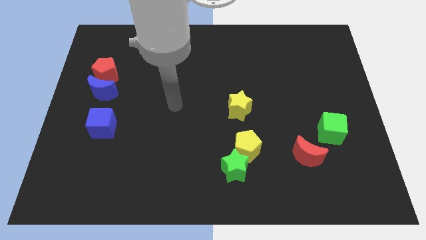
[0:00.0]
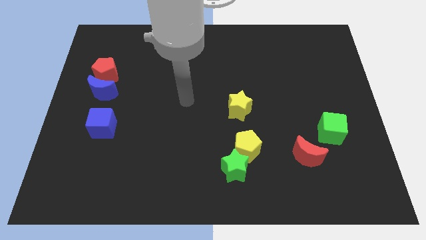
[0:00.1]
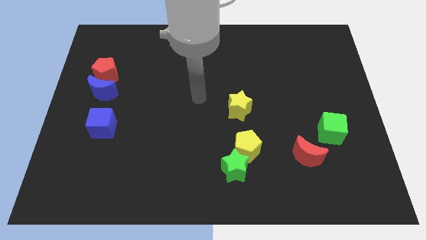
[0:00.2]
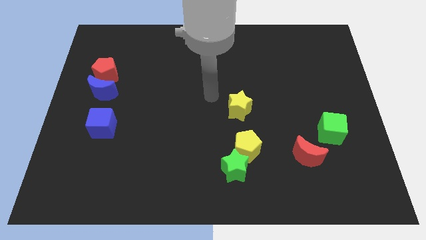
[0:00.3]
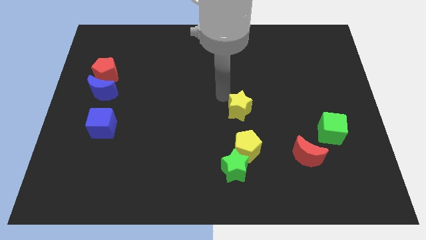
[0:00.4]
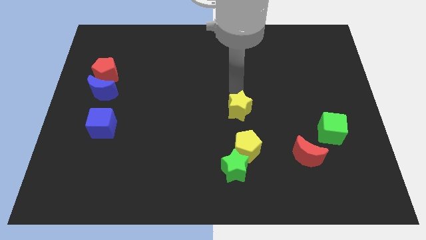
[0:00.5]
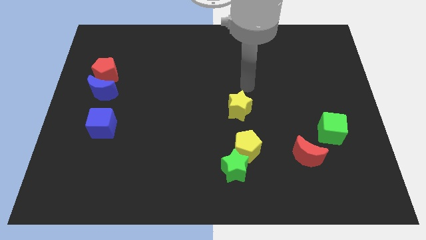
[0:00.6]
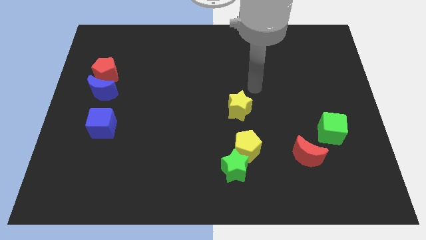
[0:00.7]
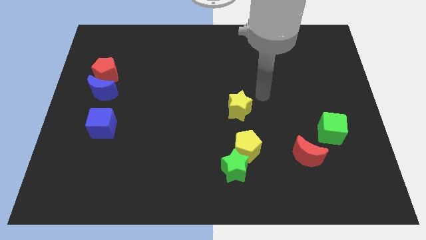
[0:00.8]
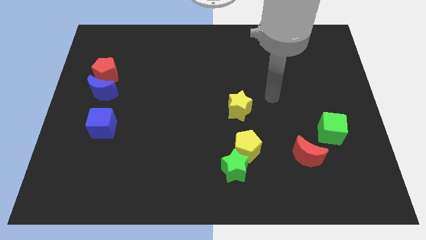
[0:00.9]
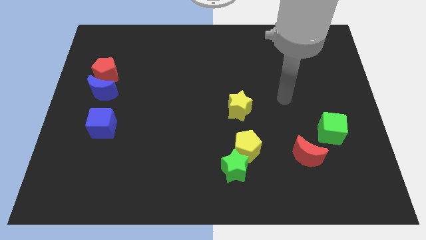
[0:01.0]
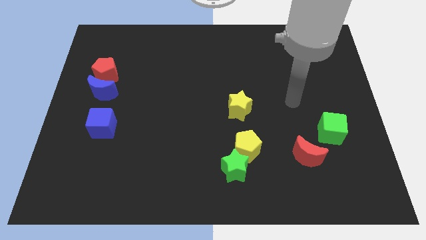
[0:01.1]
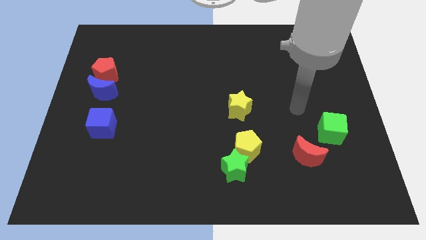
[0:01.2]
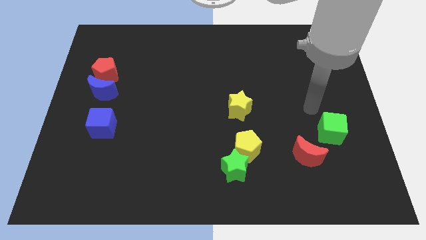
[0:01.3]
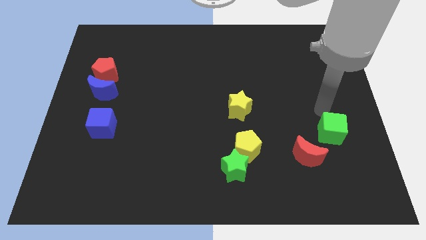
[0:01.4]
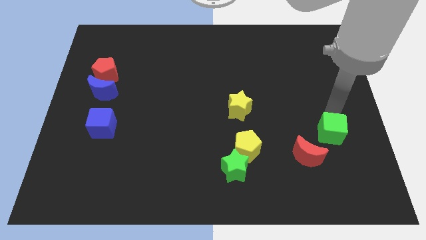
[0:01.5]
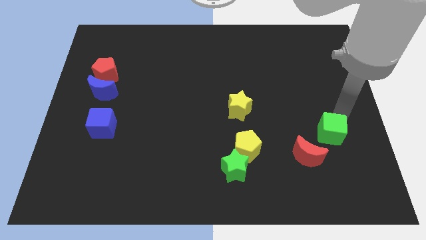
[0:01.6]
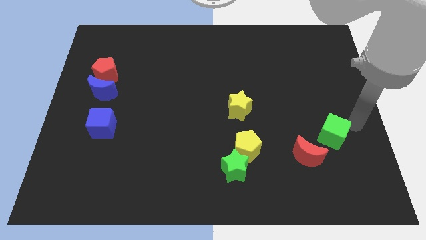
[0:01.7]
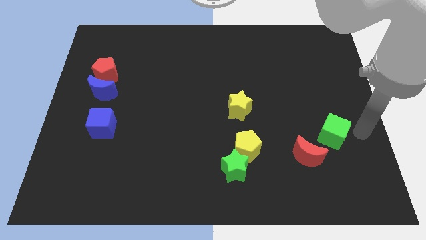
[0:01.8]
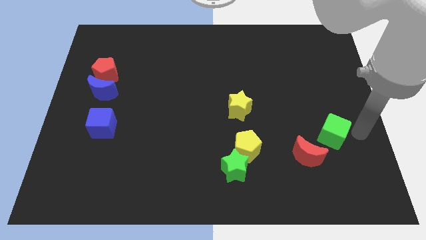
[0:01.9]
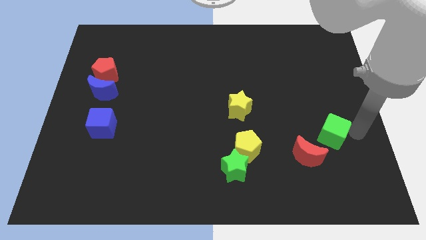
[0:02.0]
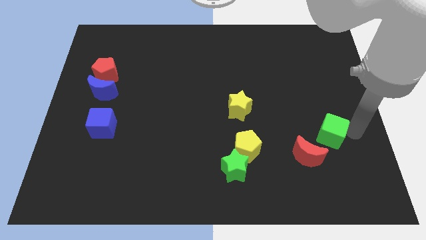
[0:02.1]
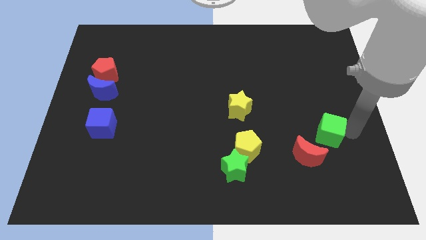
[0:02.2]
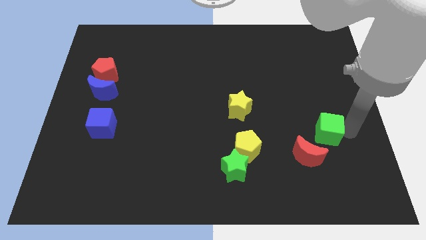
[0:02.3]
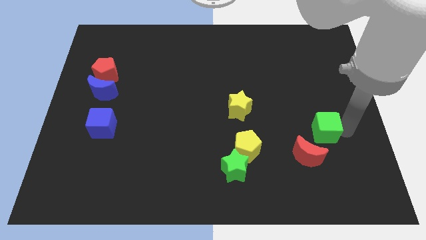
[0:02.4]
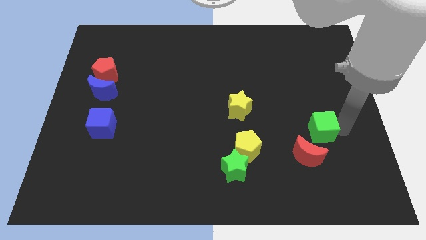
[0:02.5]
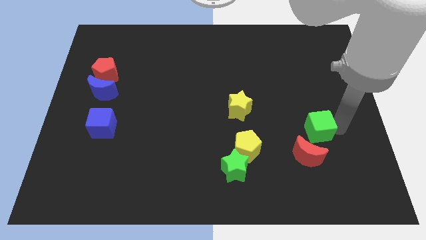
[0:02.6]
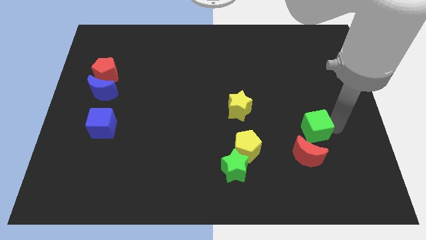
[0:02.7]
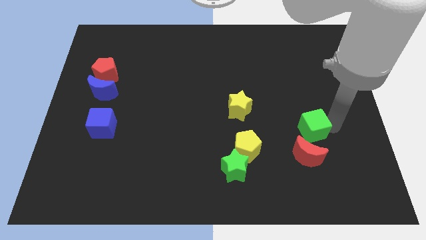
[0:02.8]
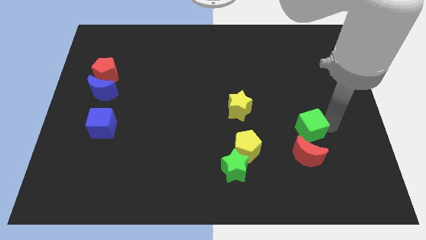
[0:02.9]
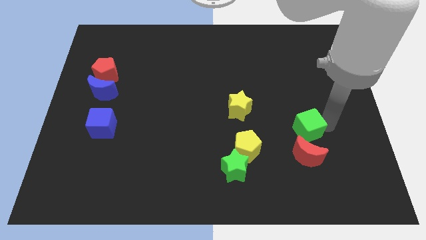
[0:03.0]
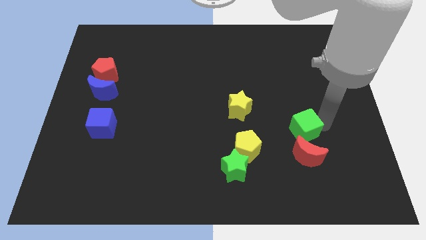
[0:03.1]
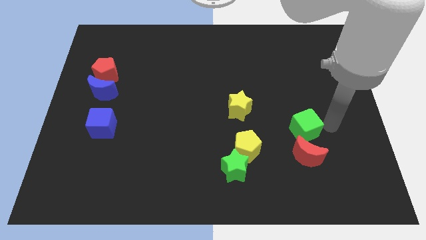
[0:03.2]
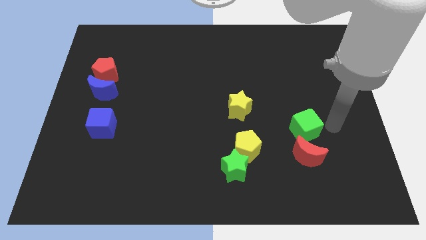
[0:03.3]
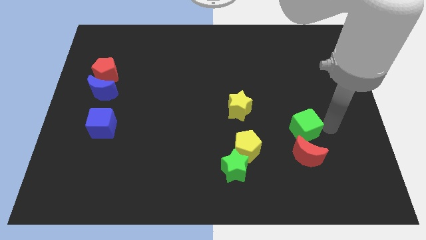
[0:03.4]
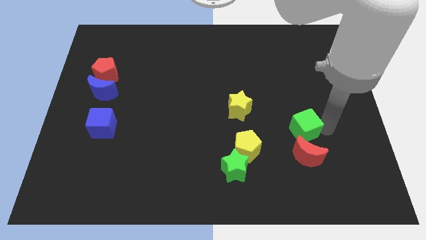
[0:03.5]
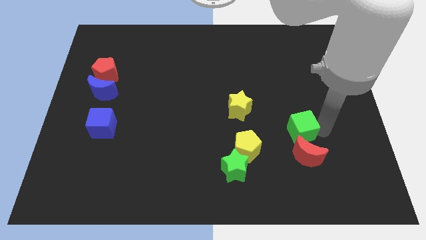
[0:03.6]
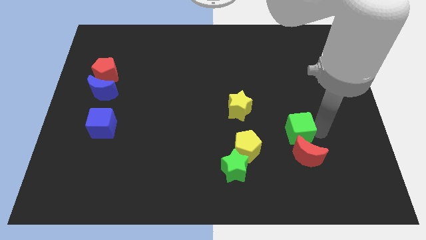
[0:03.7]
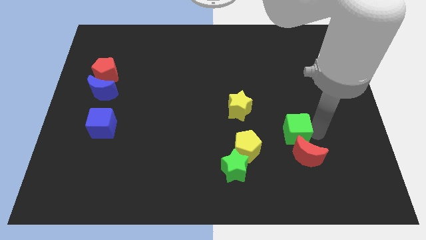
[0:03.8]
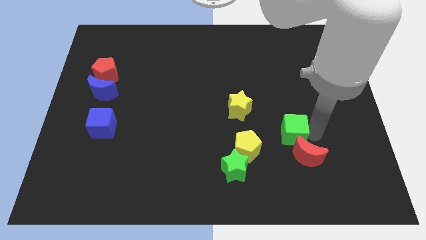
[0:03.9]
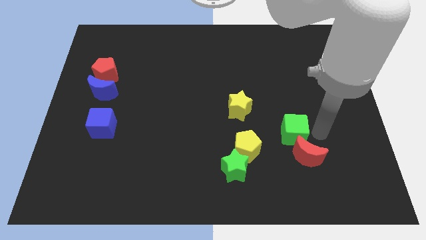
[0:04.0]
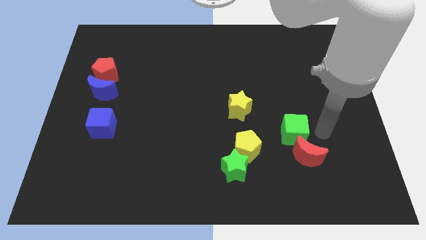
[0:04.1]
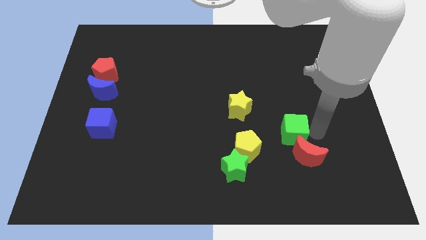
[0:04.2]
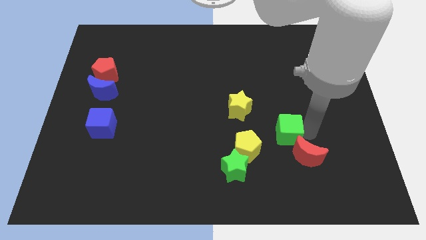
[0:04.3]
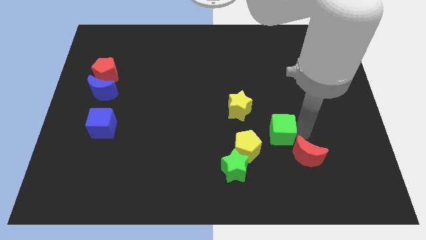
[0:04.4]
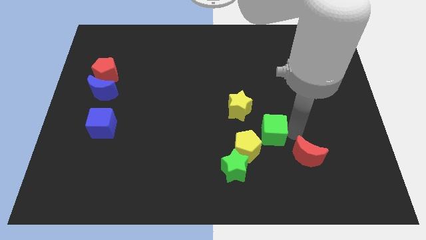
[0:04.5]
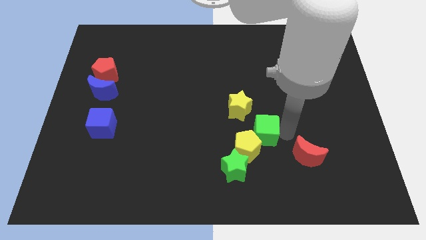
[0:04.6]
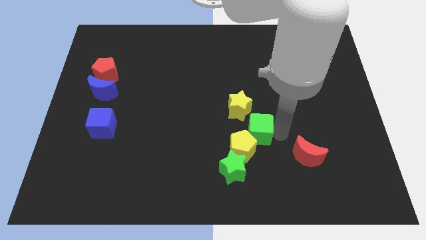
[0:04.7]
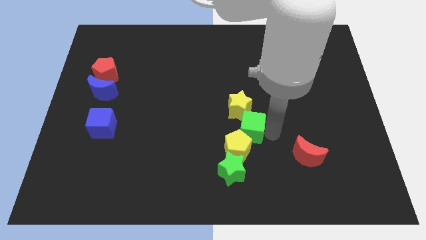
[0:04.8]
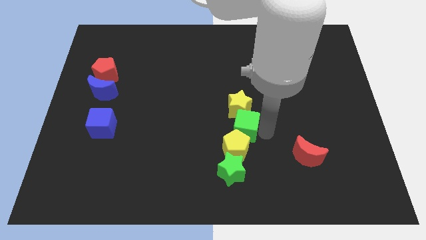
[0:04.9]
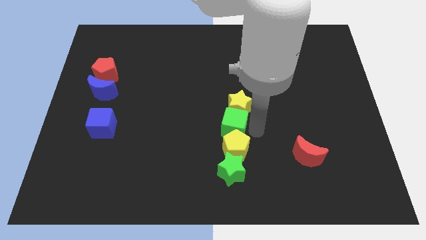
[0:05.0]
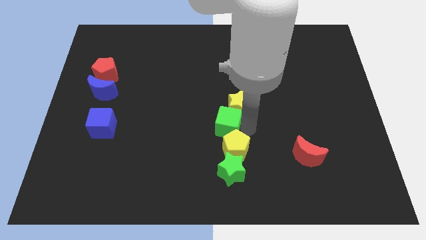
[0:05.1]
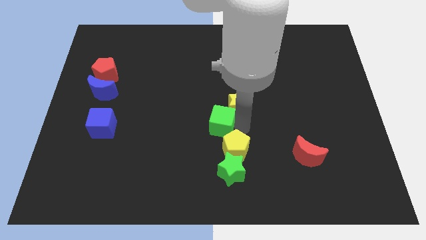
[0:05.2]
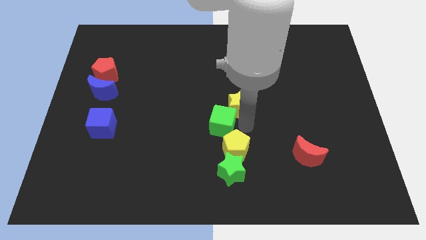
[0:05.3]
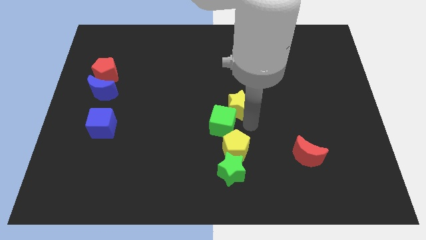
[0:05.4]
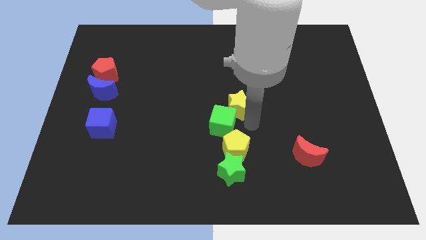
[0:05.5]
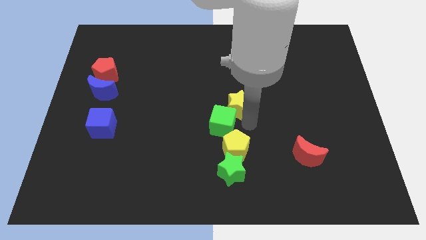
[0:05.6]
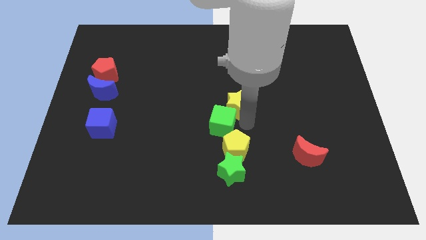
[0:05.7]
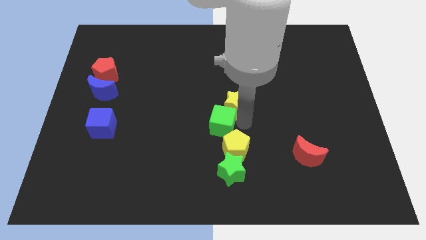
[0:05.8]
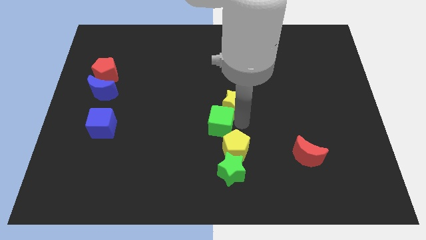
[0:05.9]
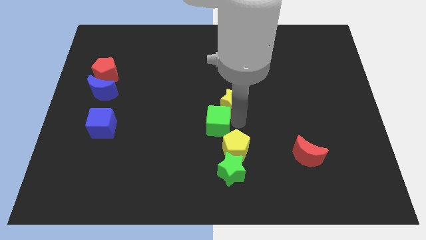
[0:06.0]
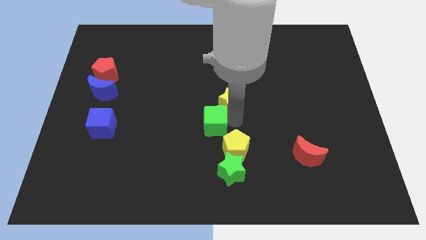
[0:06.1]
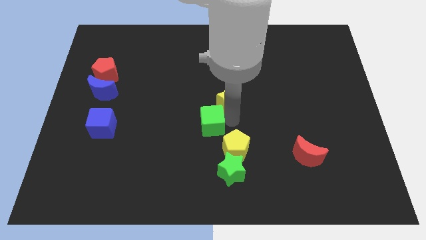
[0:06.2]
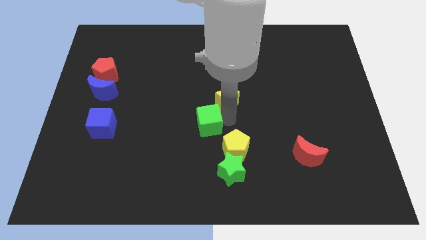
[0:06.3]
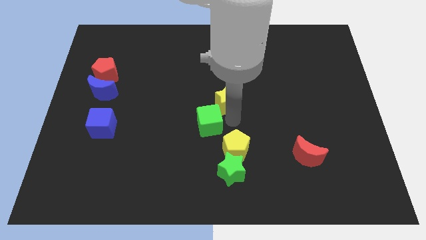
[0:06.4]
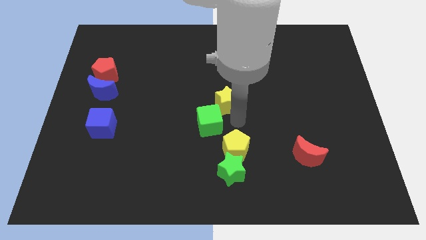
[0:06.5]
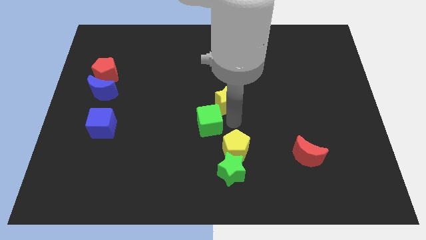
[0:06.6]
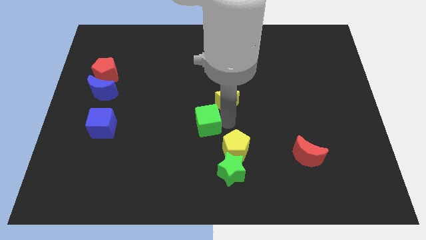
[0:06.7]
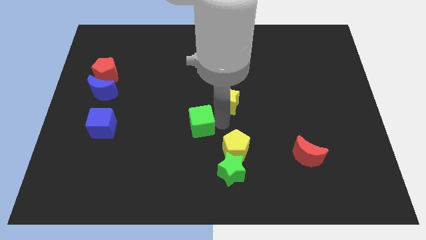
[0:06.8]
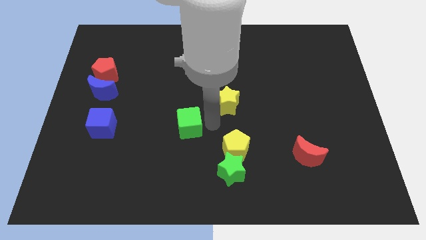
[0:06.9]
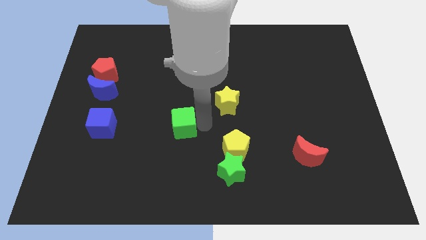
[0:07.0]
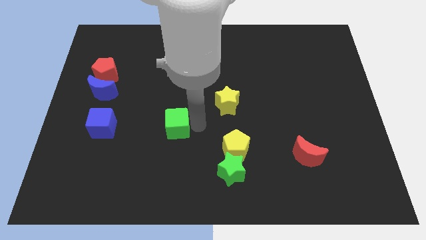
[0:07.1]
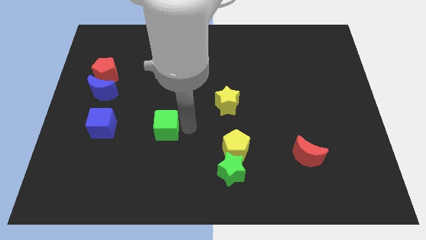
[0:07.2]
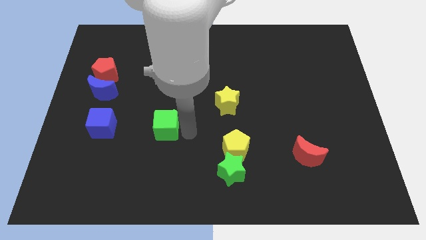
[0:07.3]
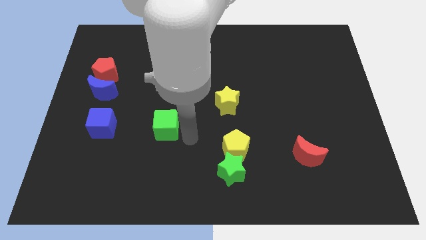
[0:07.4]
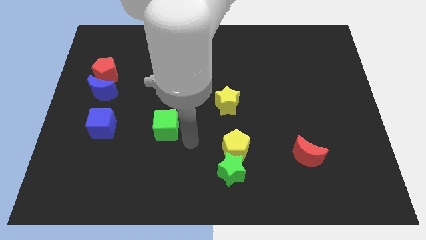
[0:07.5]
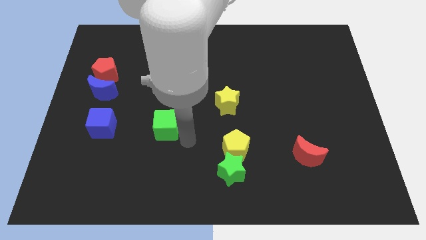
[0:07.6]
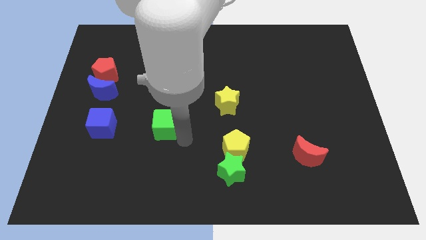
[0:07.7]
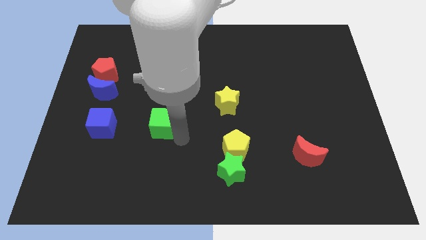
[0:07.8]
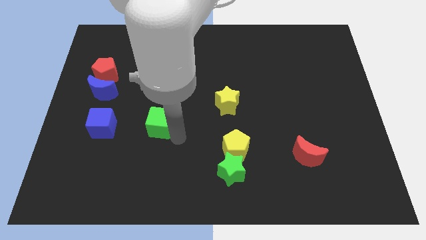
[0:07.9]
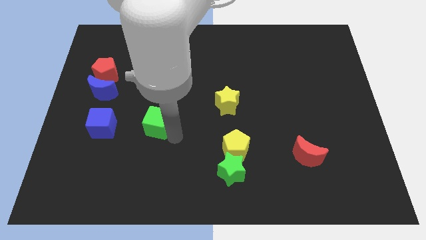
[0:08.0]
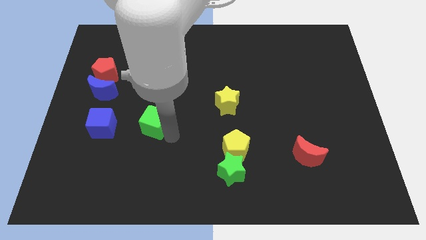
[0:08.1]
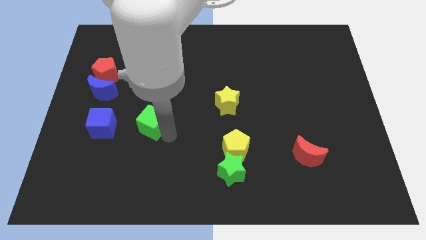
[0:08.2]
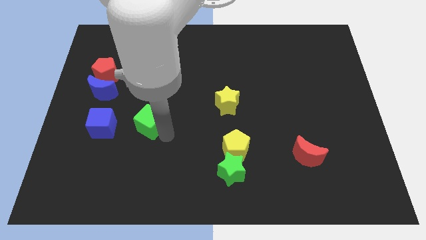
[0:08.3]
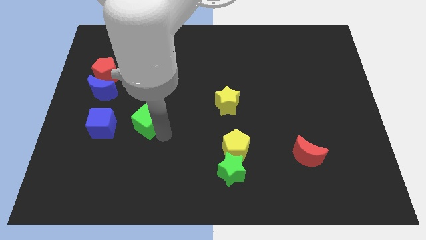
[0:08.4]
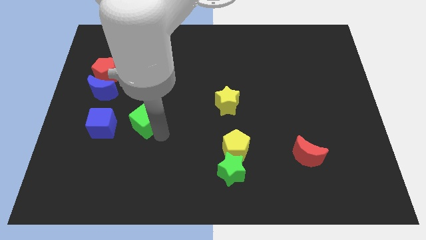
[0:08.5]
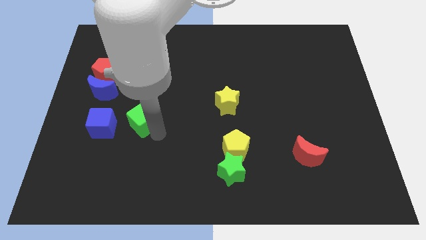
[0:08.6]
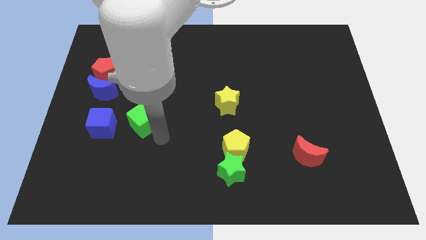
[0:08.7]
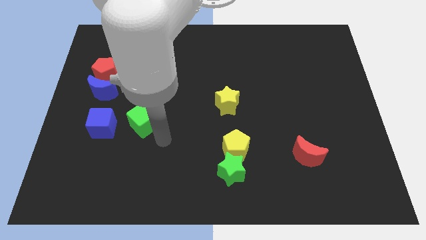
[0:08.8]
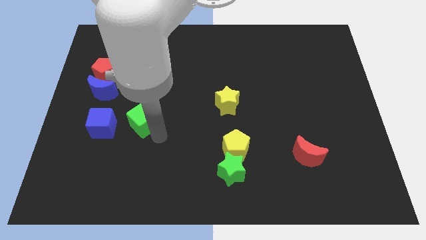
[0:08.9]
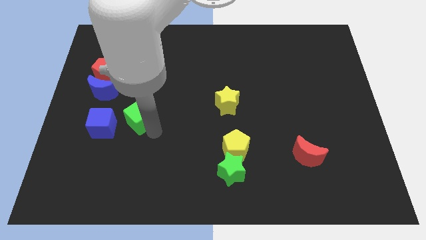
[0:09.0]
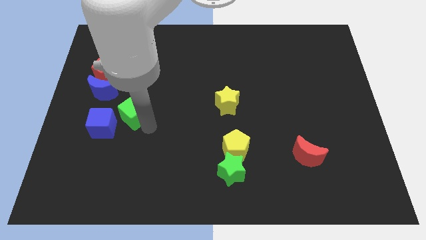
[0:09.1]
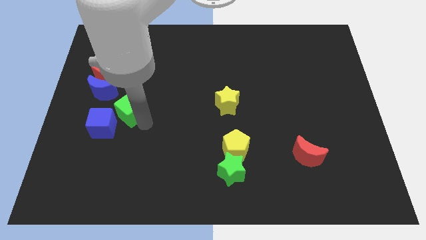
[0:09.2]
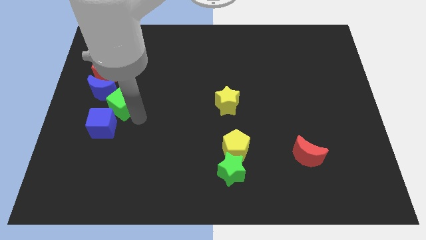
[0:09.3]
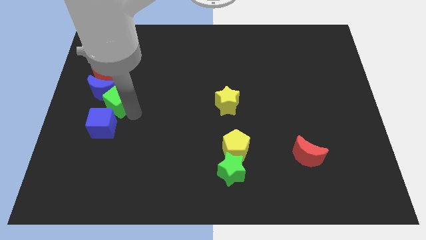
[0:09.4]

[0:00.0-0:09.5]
put the green cube close to the blue moon
